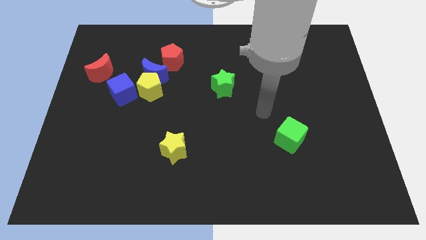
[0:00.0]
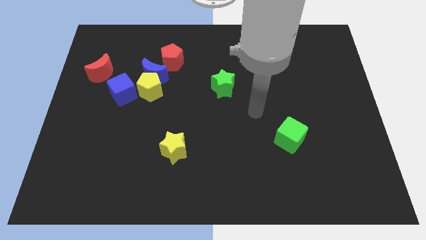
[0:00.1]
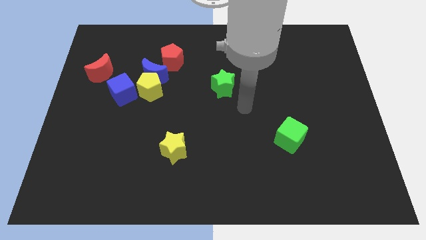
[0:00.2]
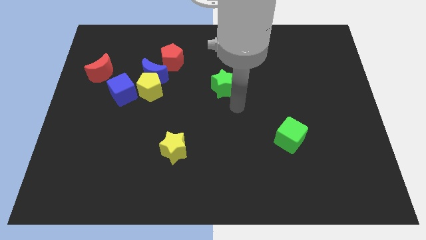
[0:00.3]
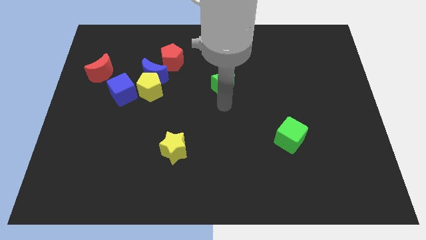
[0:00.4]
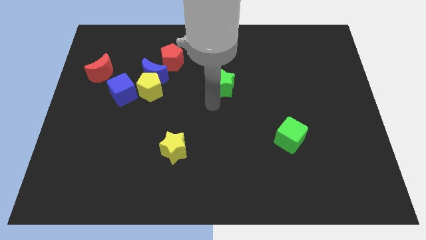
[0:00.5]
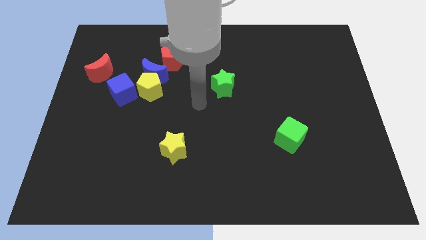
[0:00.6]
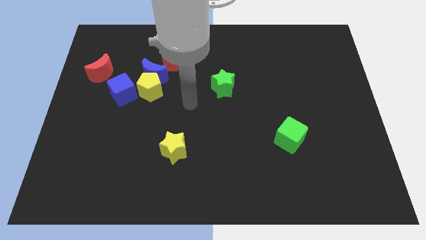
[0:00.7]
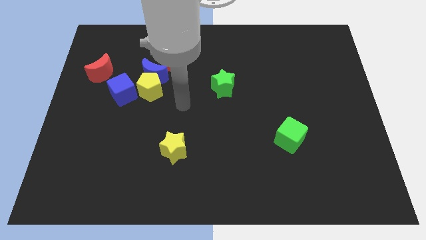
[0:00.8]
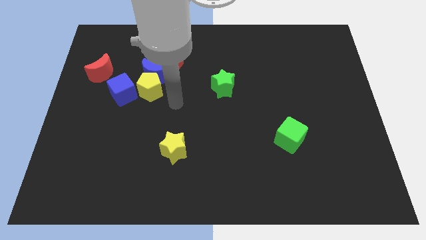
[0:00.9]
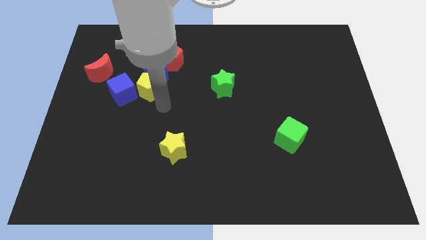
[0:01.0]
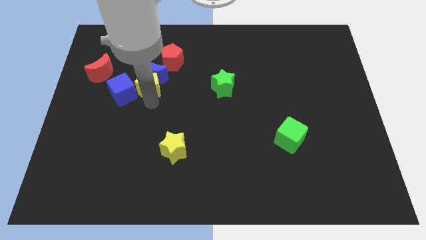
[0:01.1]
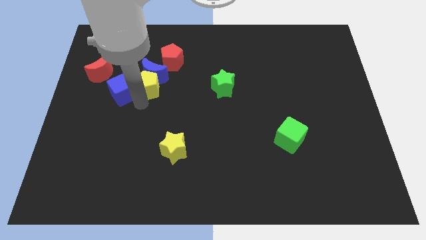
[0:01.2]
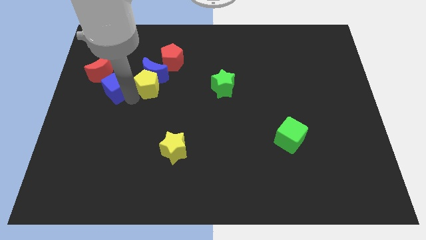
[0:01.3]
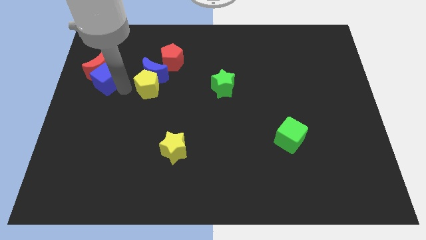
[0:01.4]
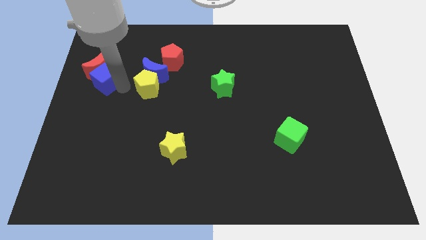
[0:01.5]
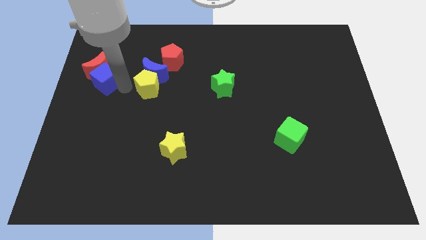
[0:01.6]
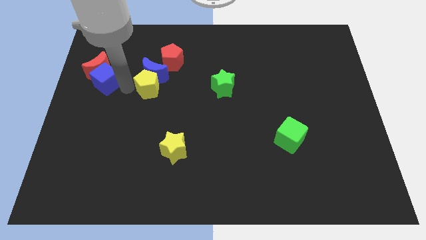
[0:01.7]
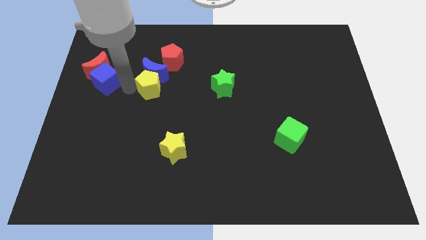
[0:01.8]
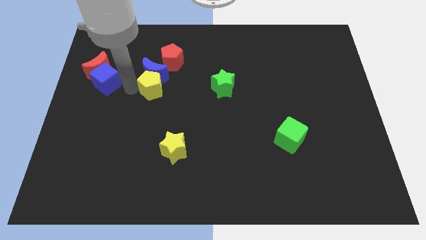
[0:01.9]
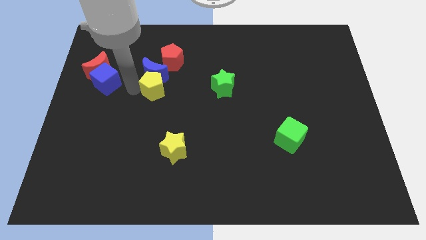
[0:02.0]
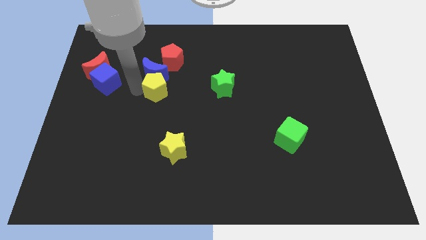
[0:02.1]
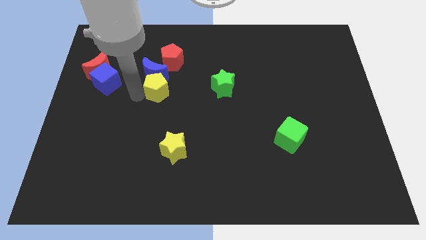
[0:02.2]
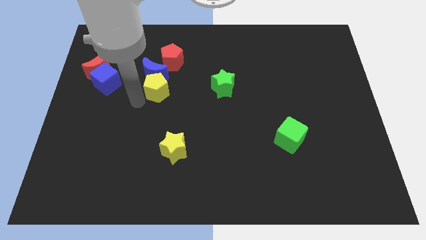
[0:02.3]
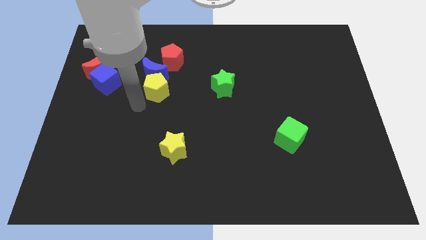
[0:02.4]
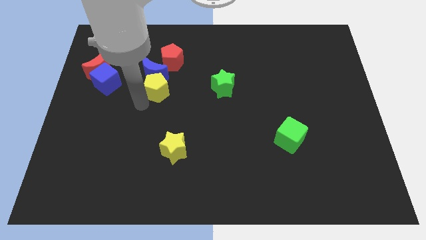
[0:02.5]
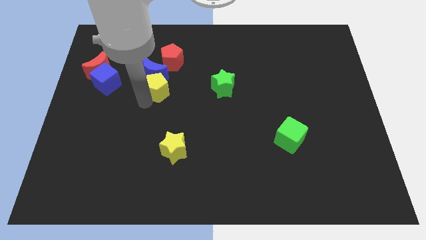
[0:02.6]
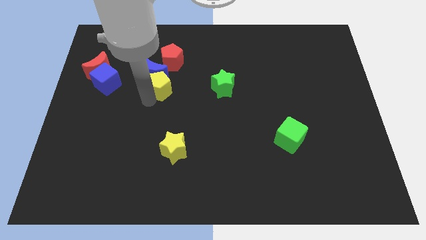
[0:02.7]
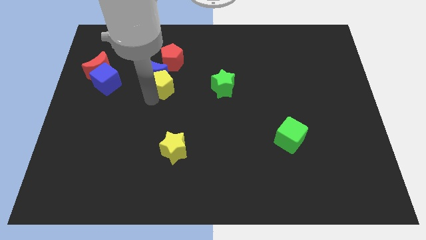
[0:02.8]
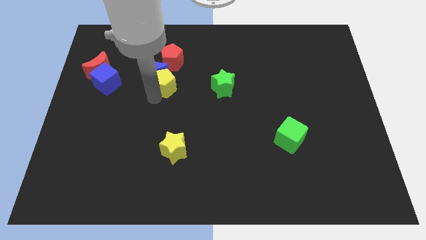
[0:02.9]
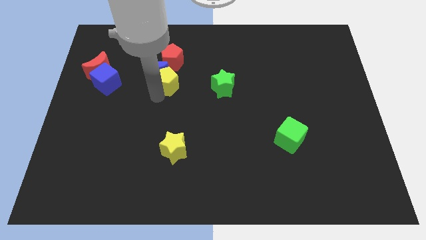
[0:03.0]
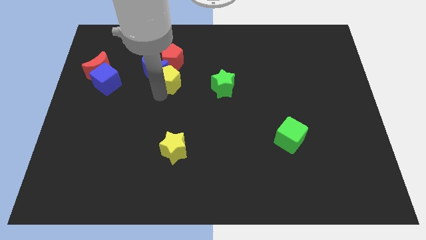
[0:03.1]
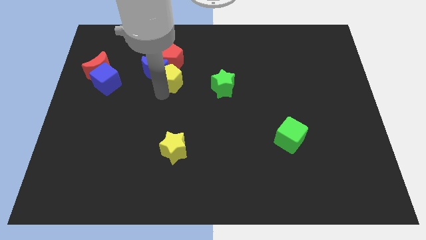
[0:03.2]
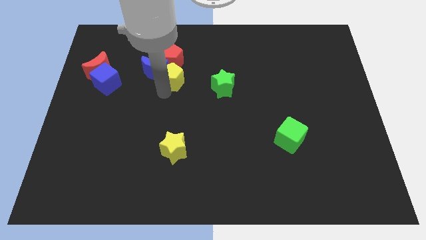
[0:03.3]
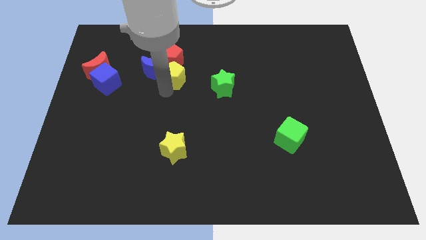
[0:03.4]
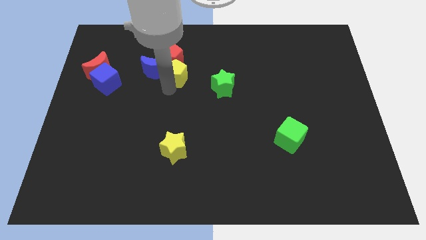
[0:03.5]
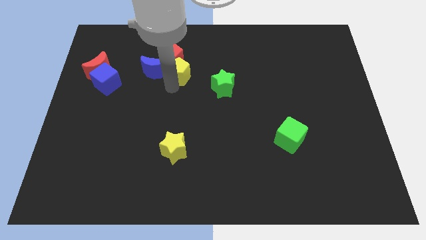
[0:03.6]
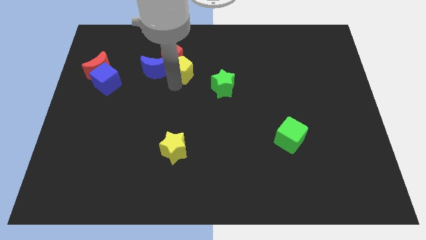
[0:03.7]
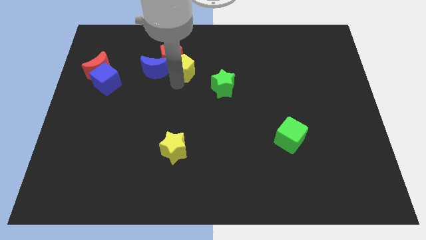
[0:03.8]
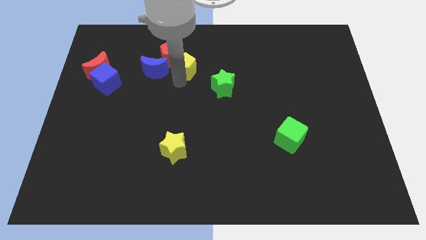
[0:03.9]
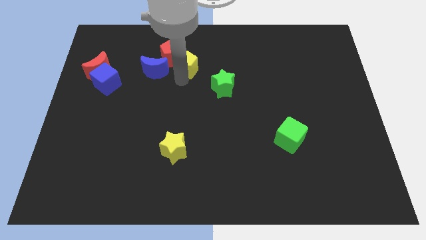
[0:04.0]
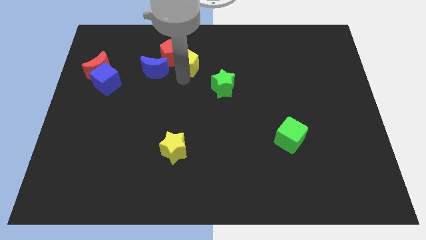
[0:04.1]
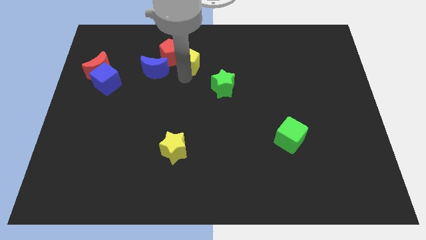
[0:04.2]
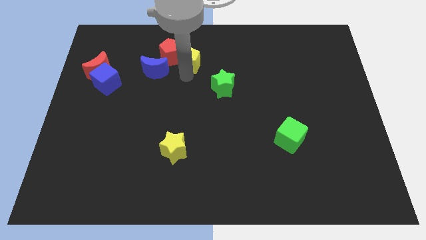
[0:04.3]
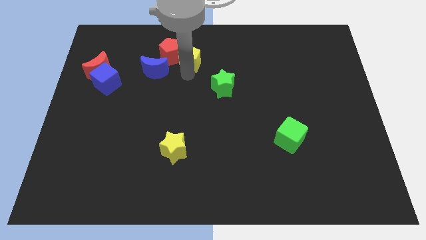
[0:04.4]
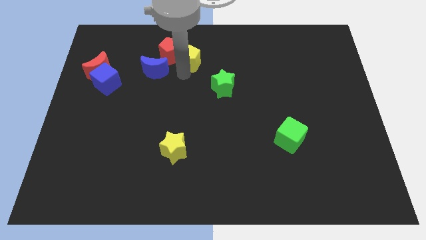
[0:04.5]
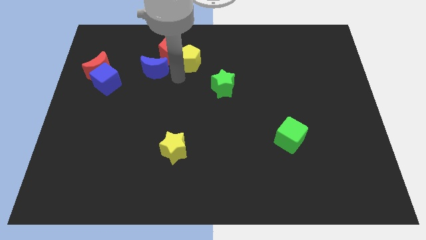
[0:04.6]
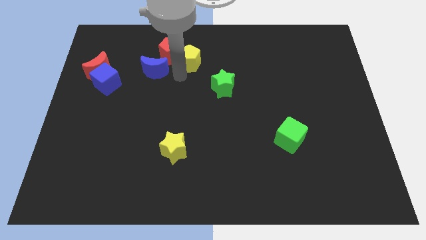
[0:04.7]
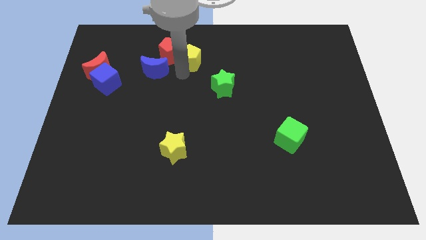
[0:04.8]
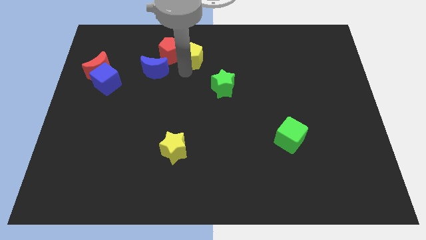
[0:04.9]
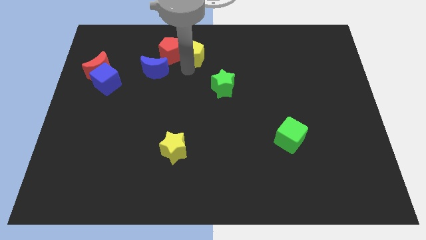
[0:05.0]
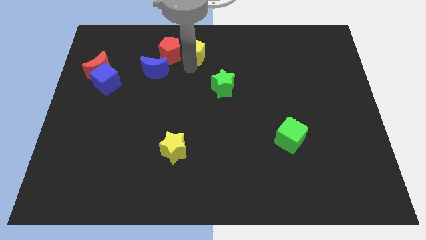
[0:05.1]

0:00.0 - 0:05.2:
put the yellow pentagon to the top side

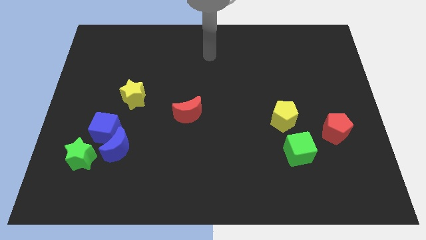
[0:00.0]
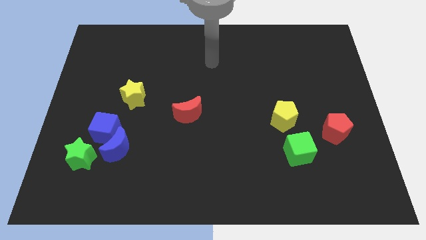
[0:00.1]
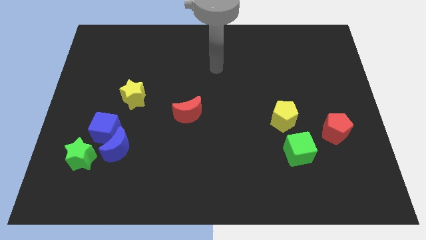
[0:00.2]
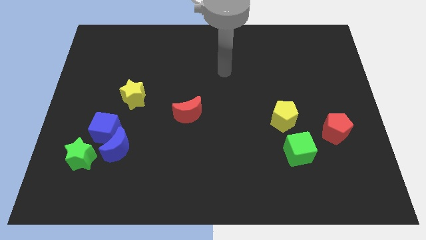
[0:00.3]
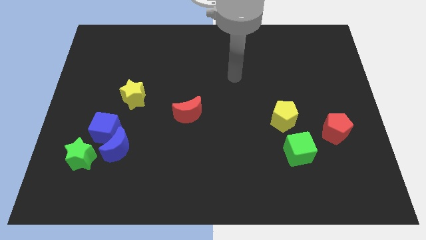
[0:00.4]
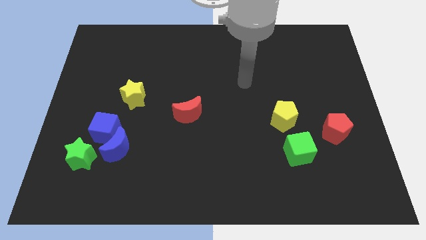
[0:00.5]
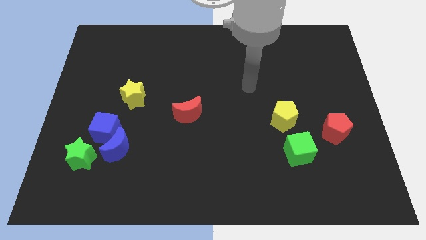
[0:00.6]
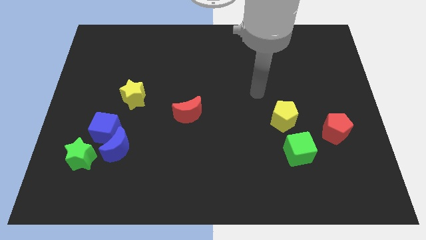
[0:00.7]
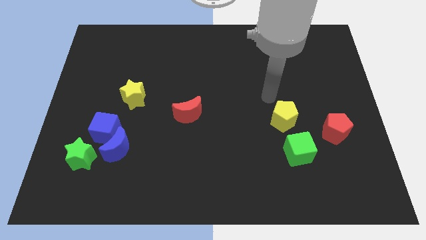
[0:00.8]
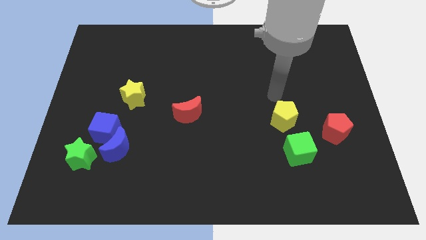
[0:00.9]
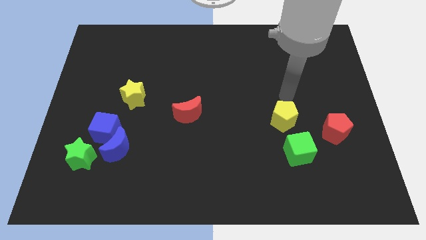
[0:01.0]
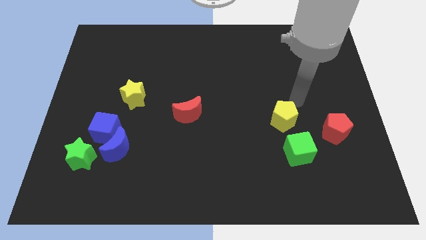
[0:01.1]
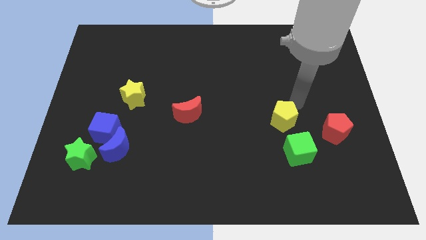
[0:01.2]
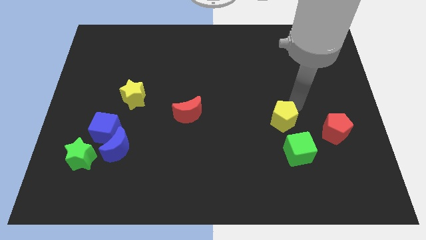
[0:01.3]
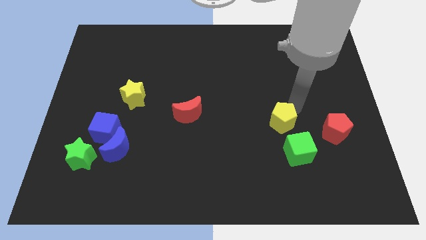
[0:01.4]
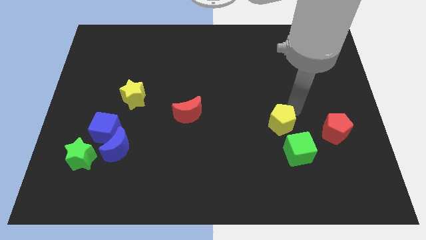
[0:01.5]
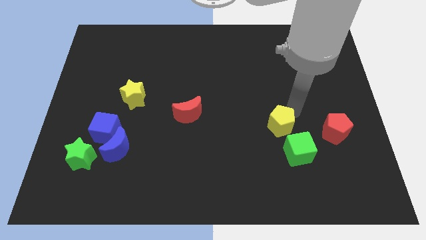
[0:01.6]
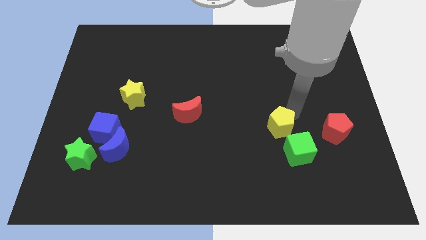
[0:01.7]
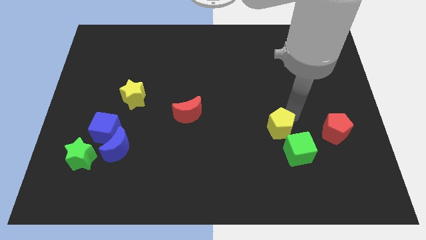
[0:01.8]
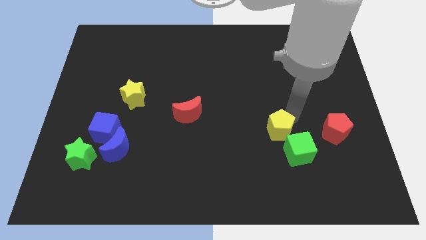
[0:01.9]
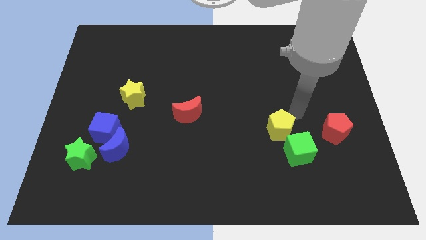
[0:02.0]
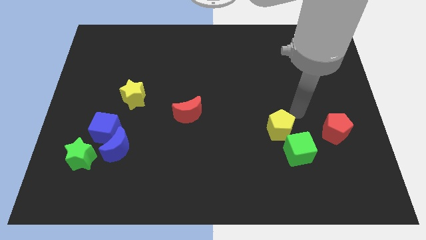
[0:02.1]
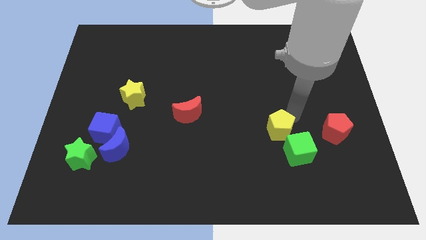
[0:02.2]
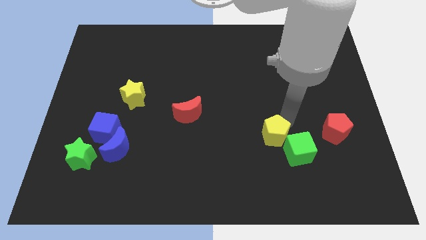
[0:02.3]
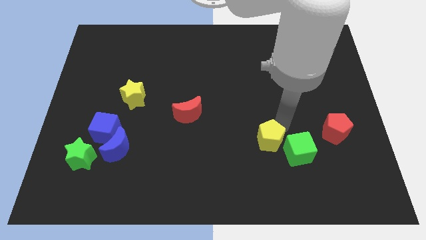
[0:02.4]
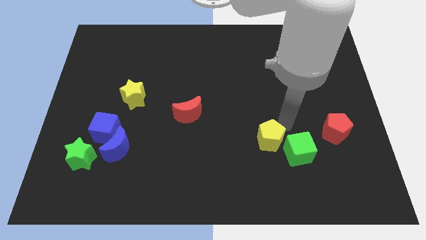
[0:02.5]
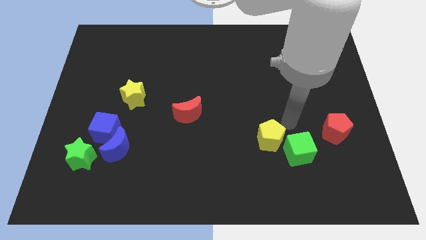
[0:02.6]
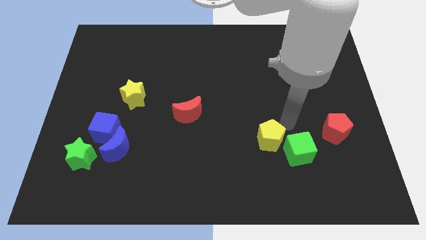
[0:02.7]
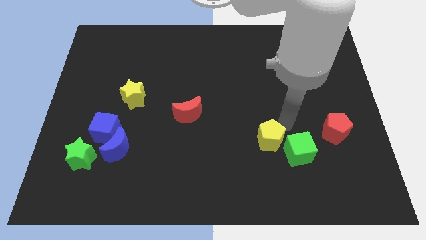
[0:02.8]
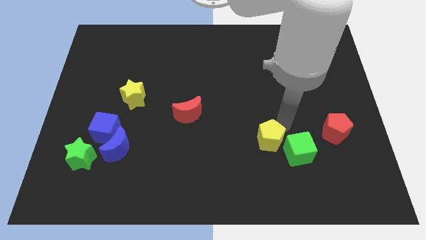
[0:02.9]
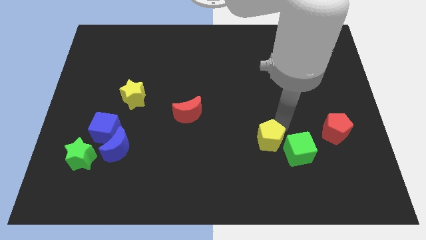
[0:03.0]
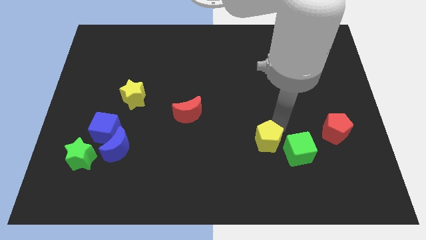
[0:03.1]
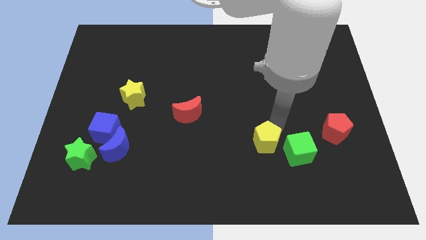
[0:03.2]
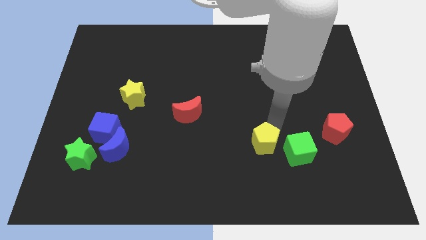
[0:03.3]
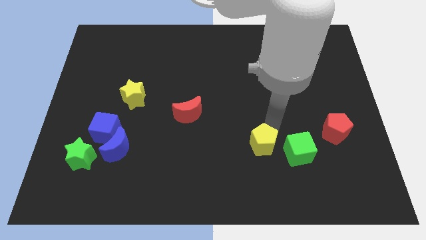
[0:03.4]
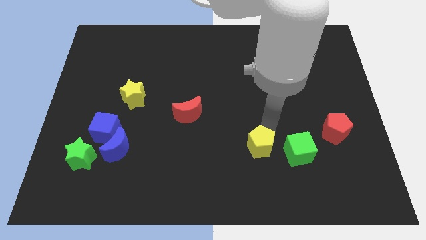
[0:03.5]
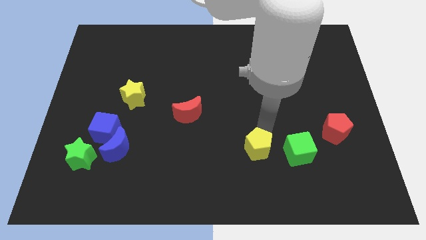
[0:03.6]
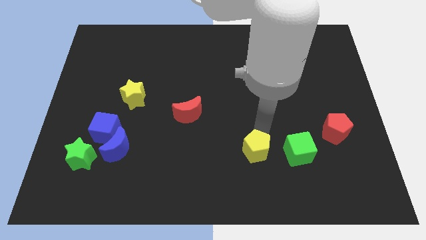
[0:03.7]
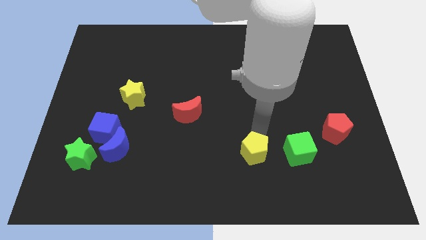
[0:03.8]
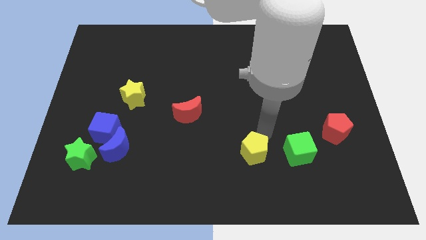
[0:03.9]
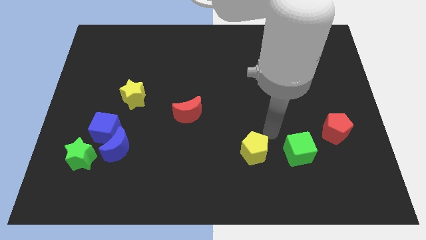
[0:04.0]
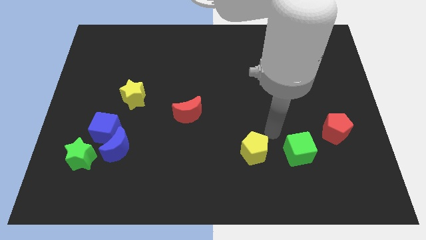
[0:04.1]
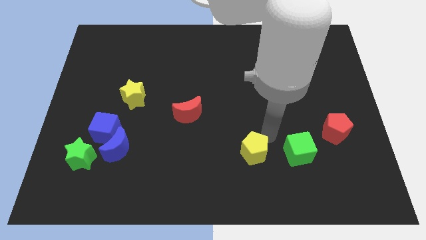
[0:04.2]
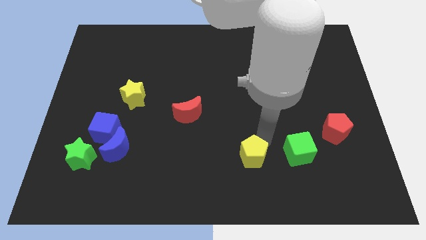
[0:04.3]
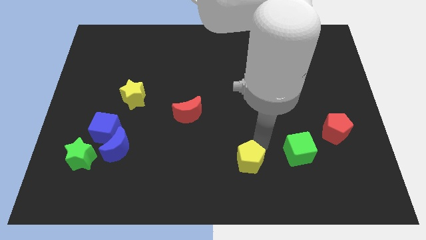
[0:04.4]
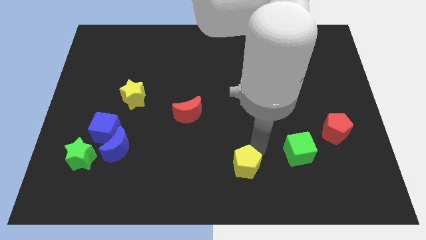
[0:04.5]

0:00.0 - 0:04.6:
push the yellow pentagon to the bottom side
